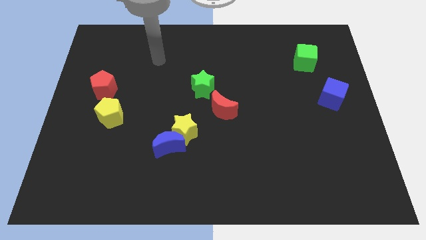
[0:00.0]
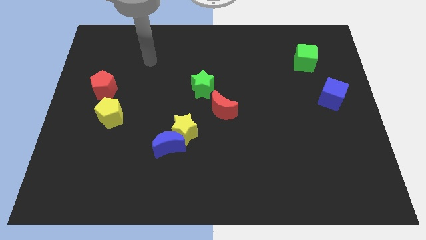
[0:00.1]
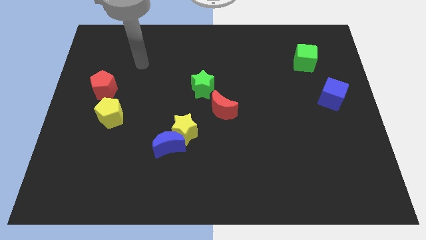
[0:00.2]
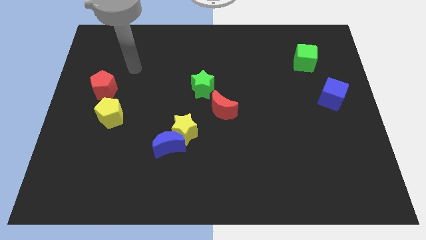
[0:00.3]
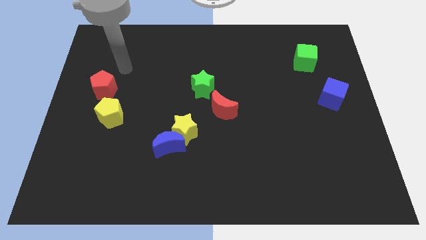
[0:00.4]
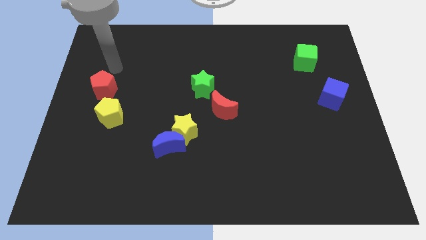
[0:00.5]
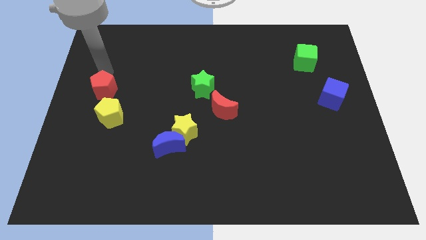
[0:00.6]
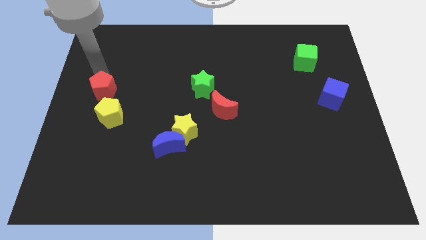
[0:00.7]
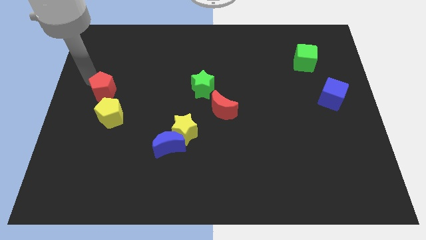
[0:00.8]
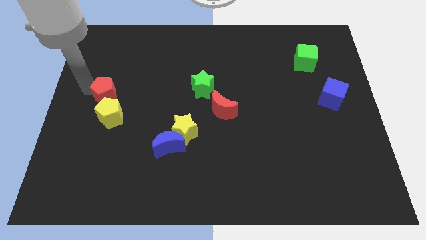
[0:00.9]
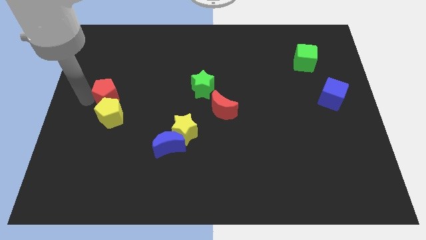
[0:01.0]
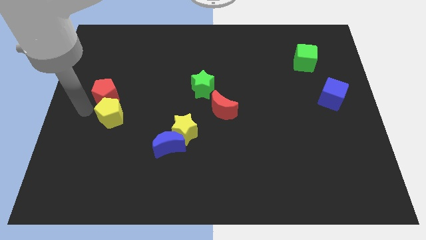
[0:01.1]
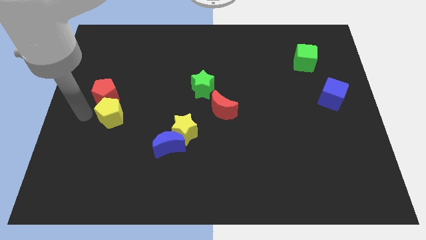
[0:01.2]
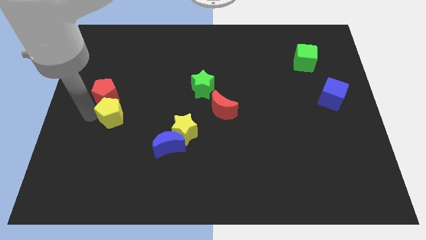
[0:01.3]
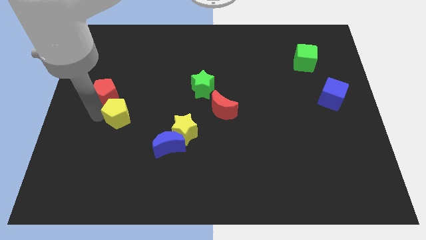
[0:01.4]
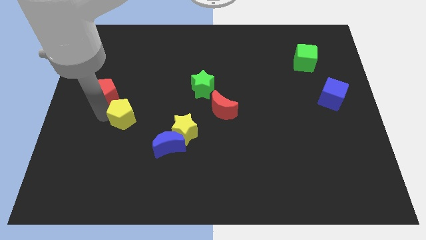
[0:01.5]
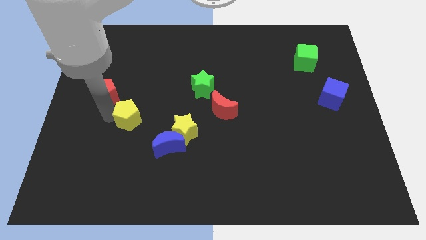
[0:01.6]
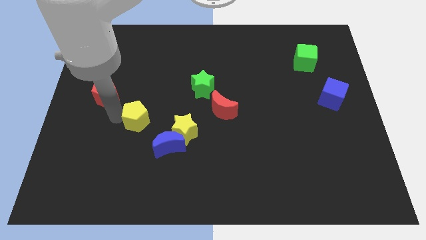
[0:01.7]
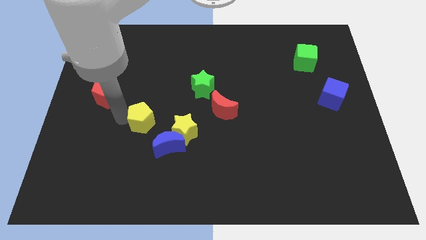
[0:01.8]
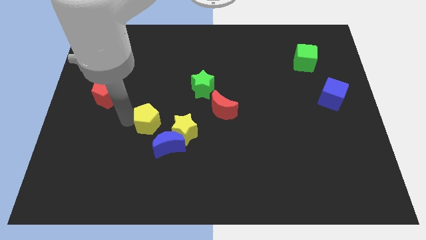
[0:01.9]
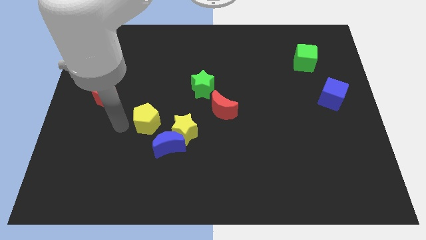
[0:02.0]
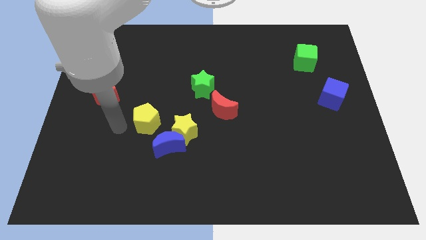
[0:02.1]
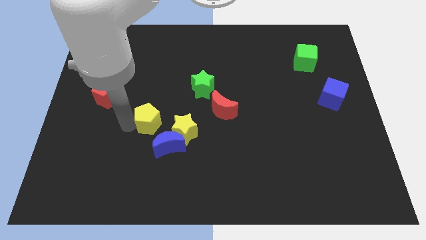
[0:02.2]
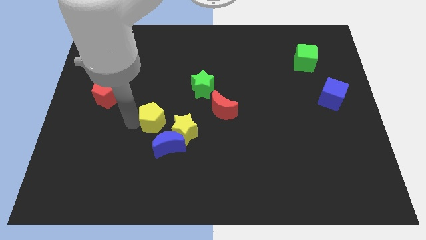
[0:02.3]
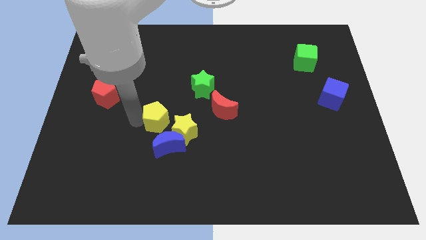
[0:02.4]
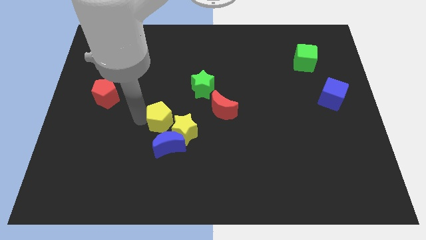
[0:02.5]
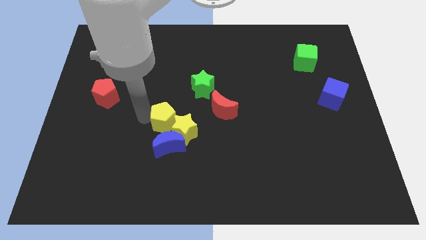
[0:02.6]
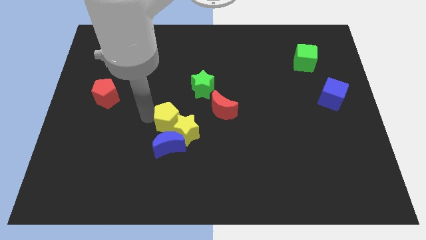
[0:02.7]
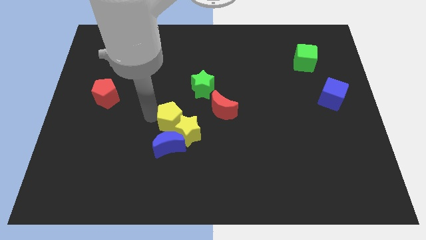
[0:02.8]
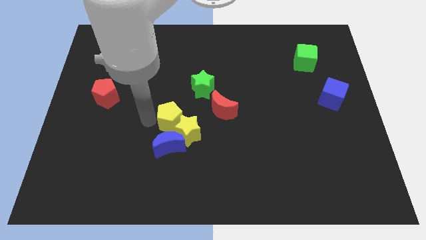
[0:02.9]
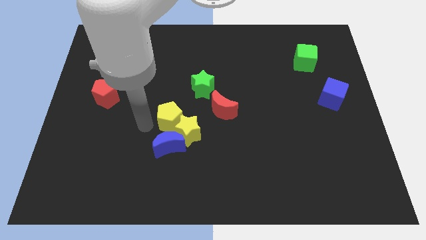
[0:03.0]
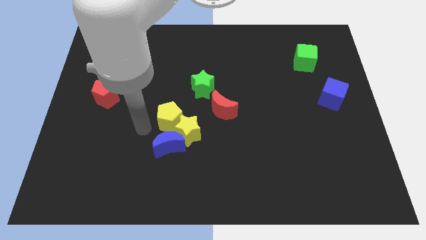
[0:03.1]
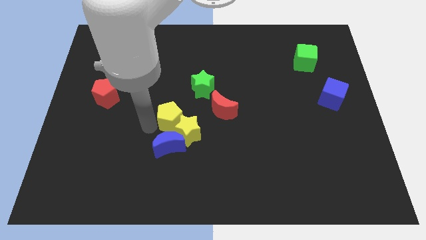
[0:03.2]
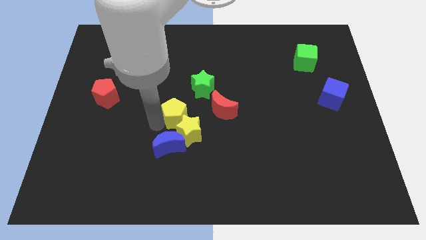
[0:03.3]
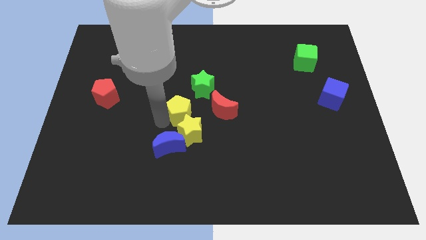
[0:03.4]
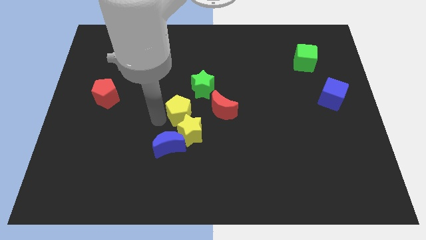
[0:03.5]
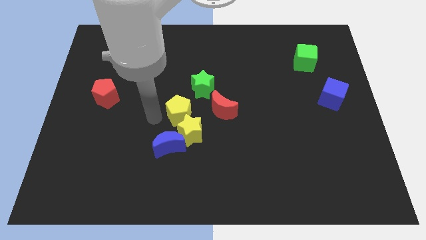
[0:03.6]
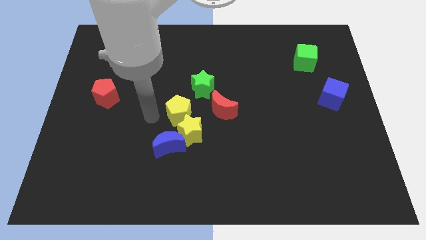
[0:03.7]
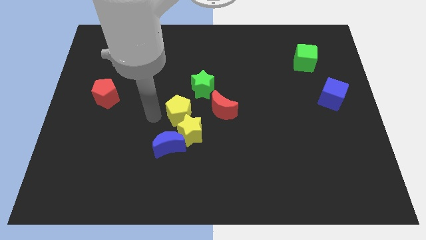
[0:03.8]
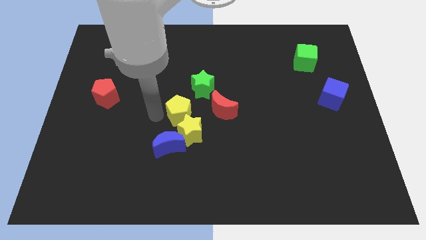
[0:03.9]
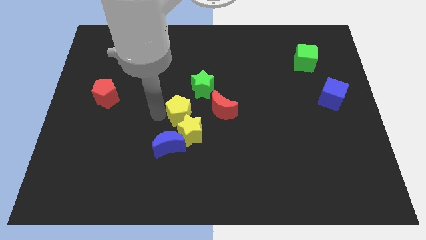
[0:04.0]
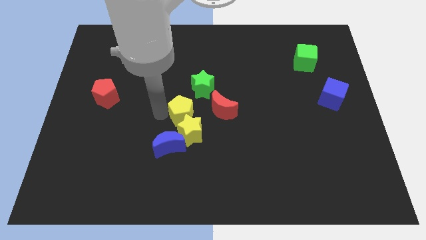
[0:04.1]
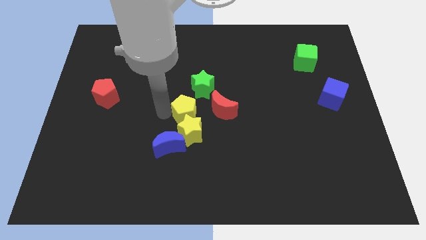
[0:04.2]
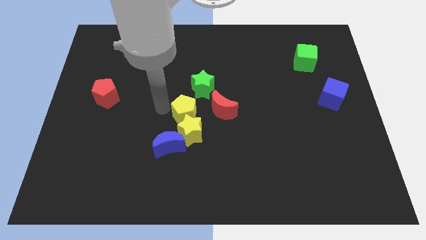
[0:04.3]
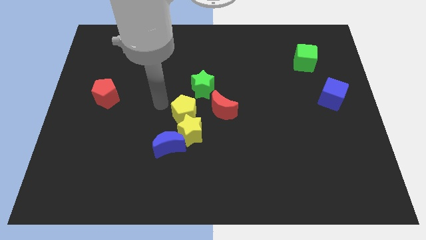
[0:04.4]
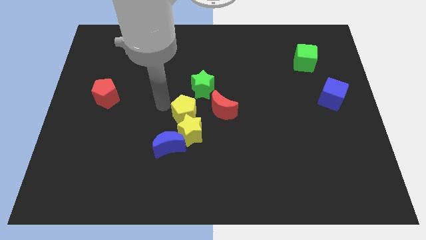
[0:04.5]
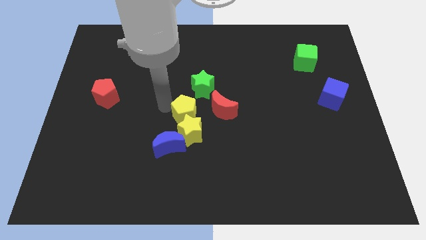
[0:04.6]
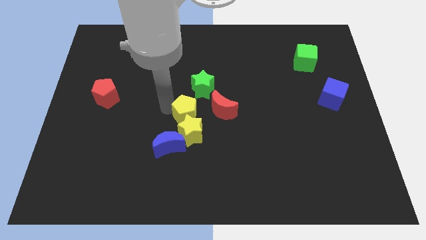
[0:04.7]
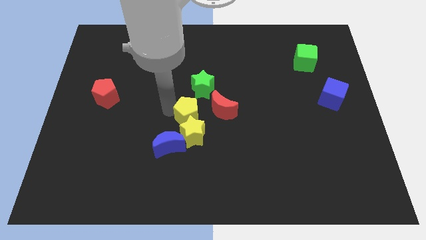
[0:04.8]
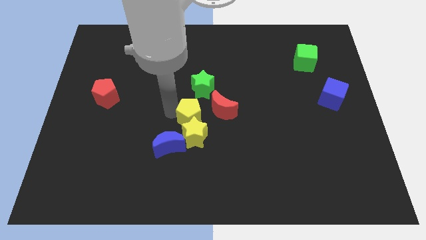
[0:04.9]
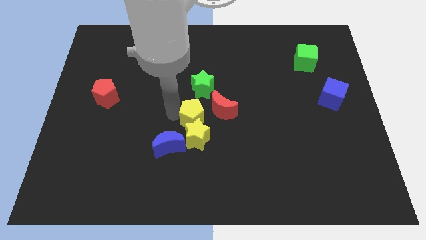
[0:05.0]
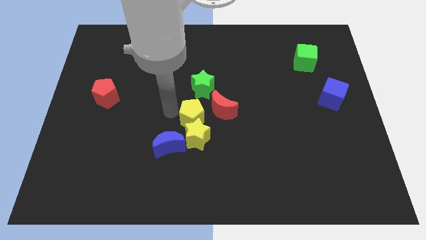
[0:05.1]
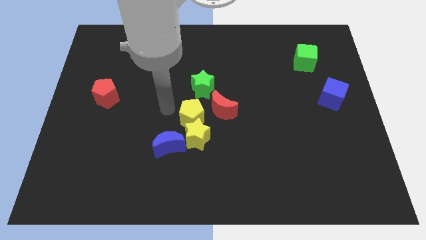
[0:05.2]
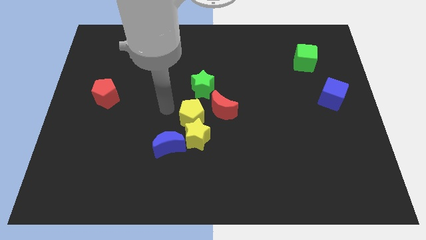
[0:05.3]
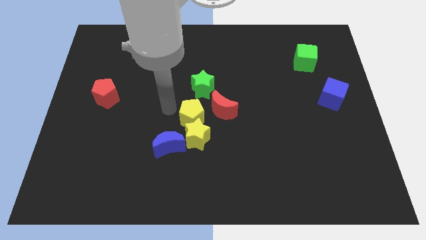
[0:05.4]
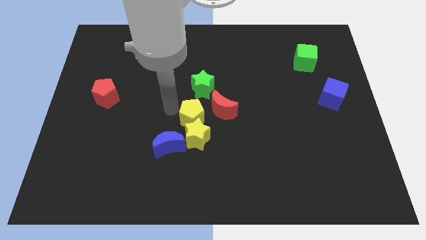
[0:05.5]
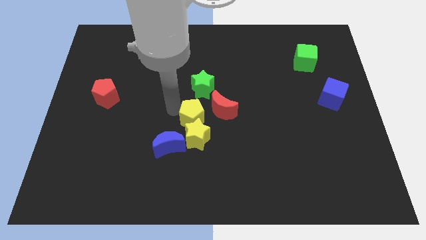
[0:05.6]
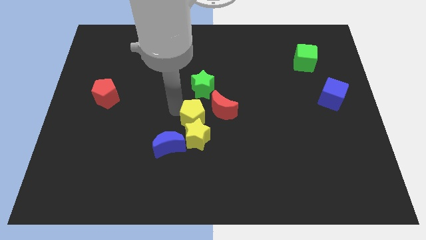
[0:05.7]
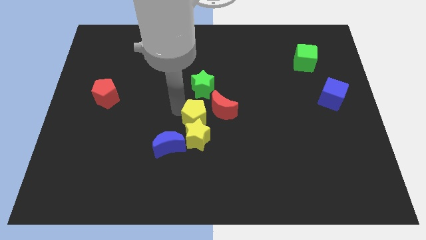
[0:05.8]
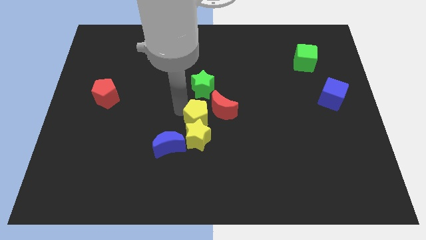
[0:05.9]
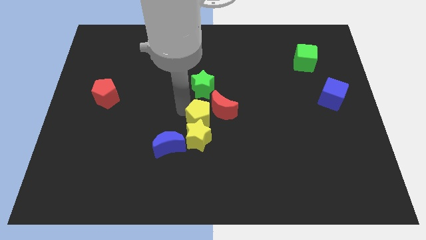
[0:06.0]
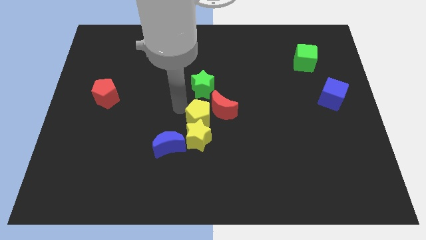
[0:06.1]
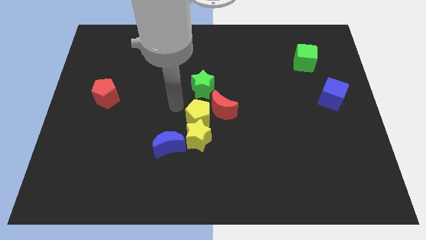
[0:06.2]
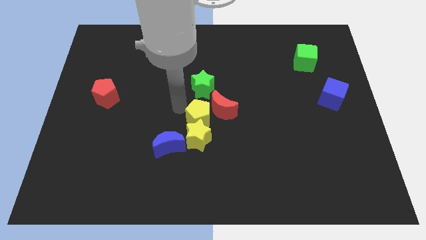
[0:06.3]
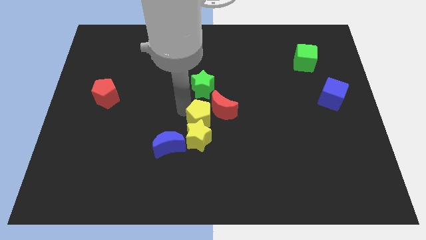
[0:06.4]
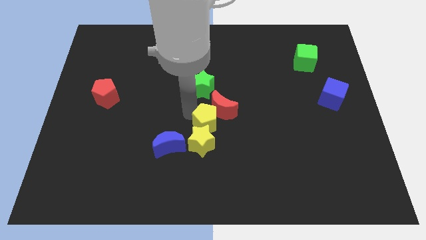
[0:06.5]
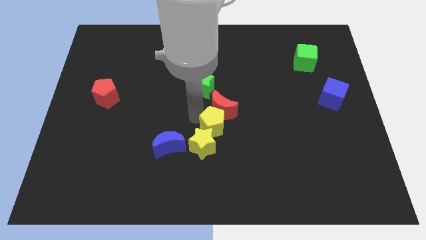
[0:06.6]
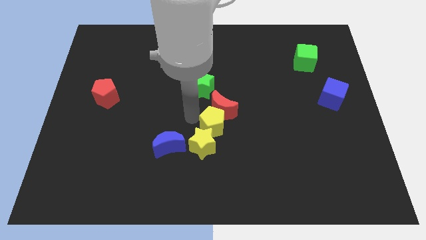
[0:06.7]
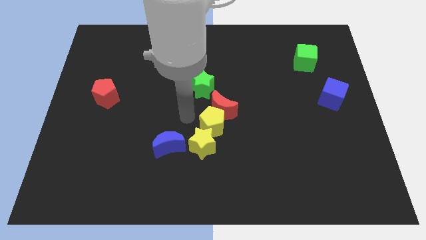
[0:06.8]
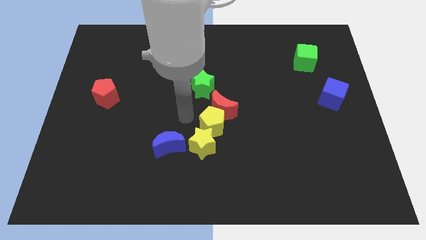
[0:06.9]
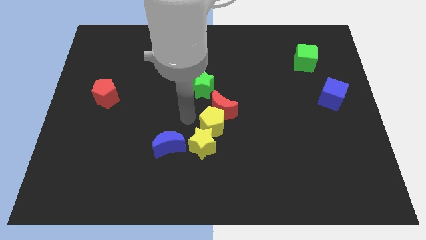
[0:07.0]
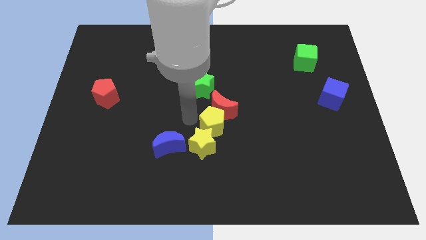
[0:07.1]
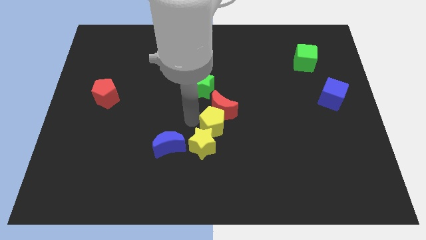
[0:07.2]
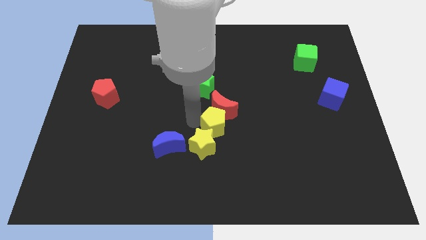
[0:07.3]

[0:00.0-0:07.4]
put the yellow pentagon diagonally down and to the right of the red moon

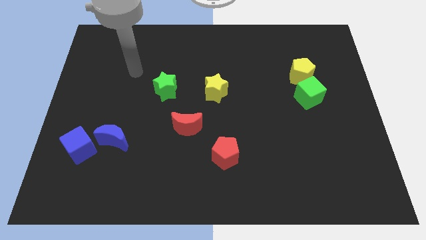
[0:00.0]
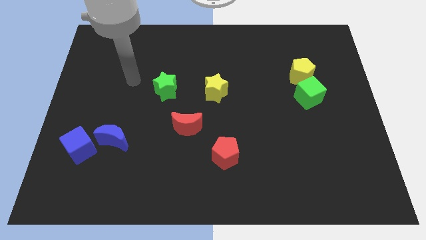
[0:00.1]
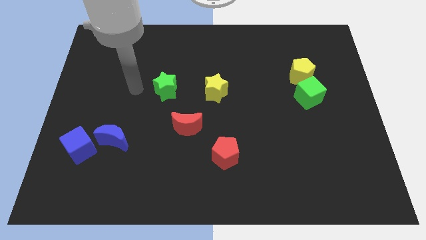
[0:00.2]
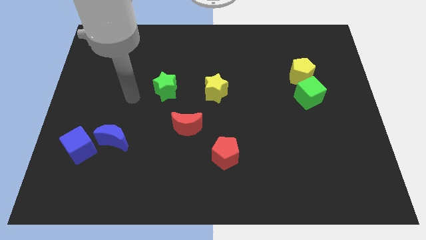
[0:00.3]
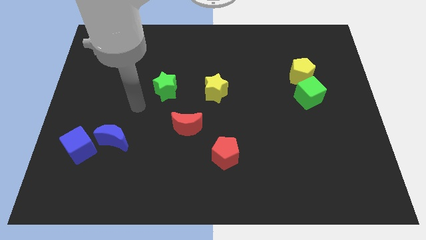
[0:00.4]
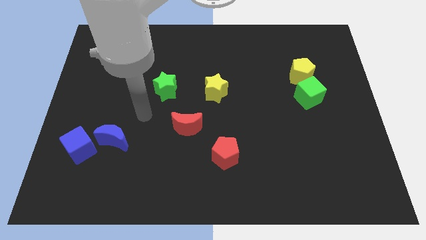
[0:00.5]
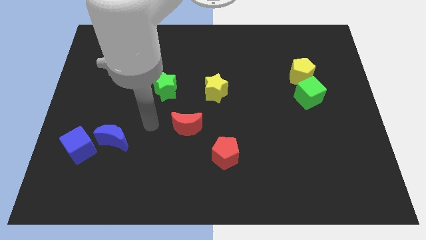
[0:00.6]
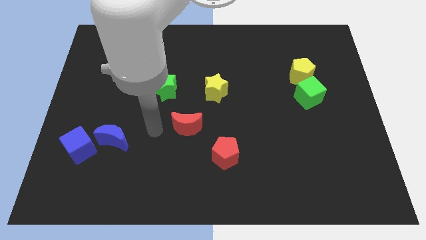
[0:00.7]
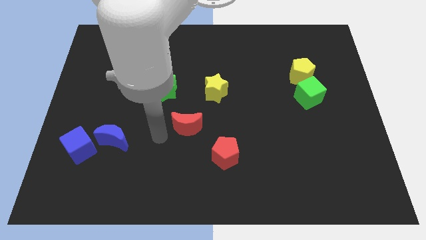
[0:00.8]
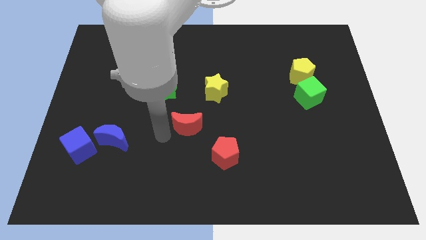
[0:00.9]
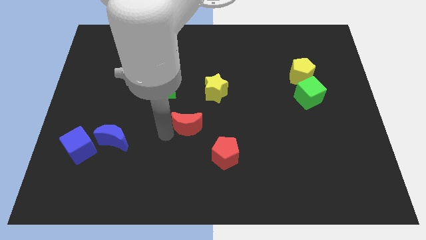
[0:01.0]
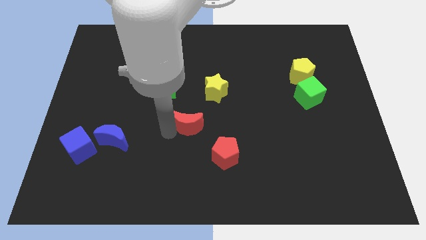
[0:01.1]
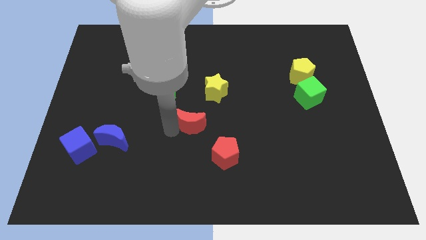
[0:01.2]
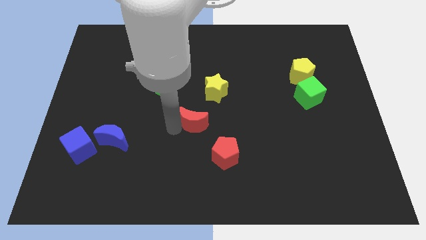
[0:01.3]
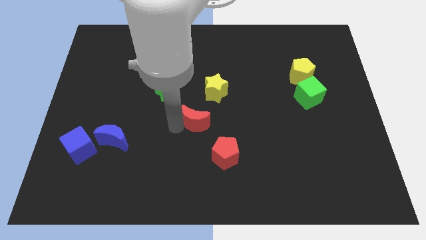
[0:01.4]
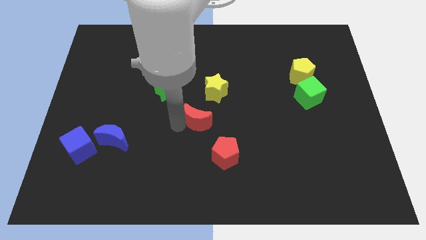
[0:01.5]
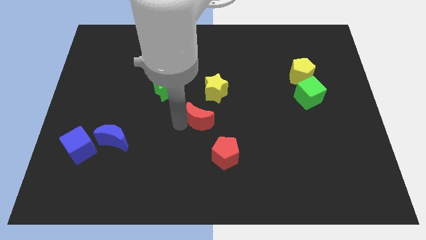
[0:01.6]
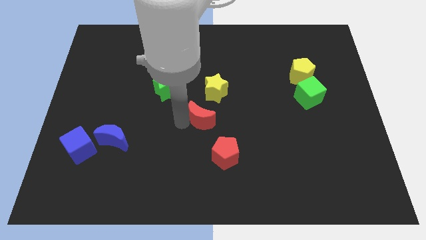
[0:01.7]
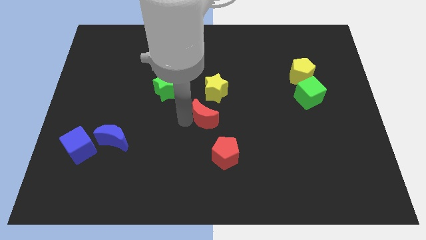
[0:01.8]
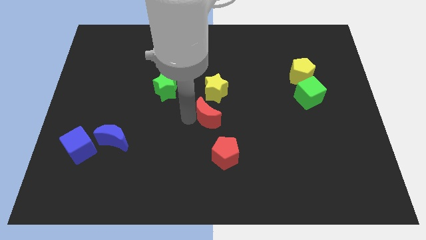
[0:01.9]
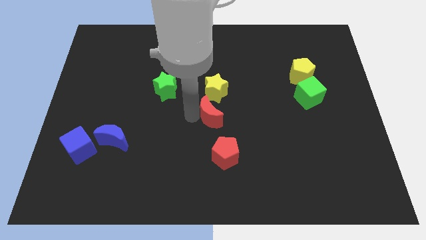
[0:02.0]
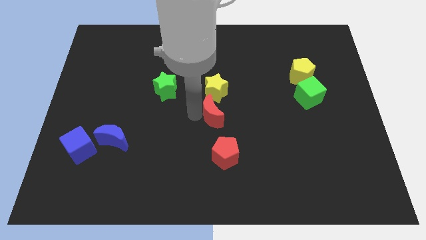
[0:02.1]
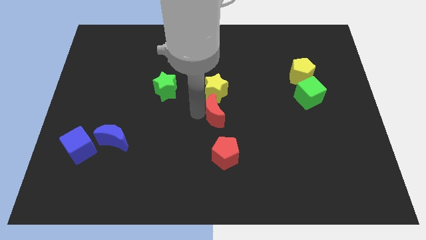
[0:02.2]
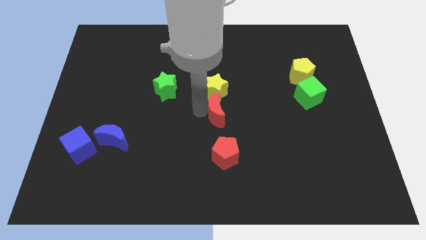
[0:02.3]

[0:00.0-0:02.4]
slide the red moon diagonally down and to the right of the yellow star
